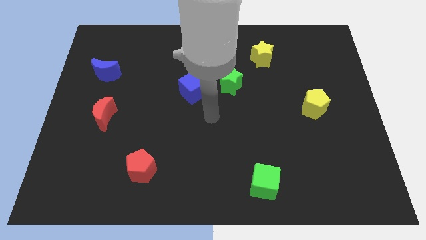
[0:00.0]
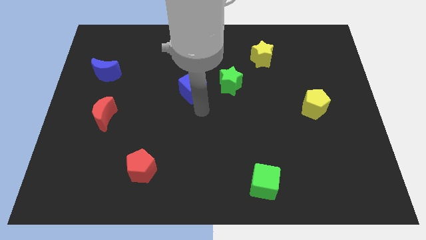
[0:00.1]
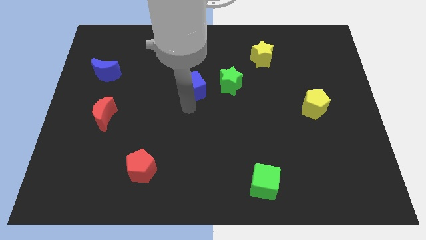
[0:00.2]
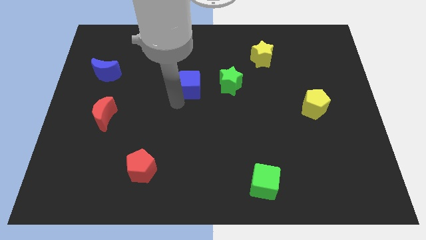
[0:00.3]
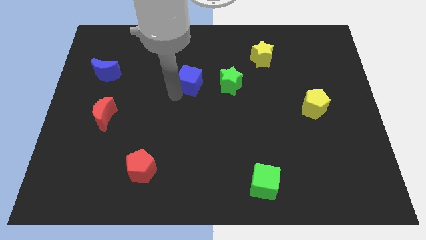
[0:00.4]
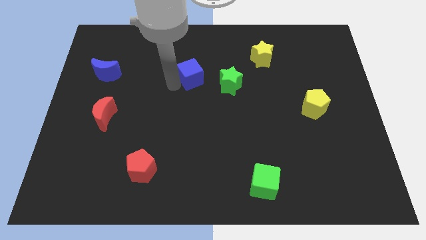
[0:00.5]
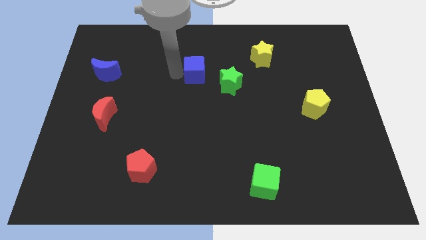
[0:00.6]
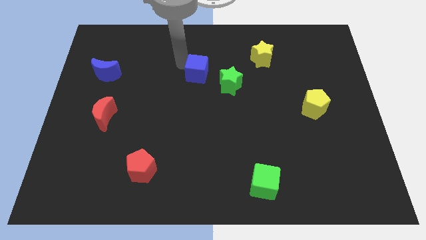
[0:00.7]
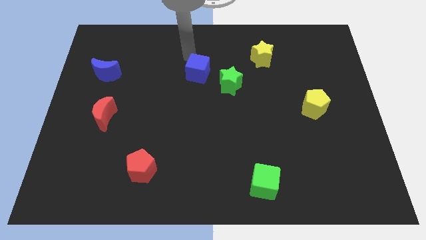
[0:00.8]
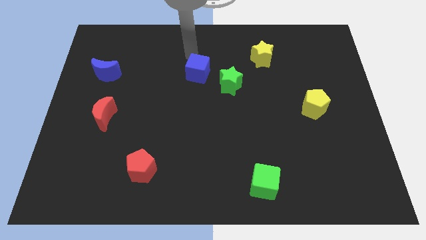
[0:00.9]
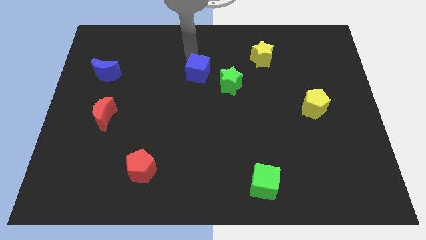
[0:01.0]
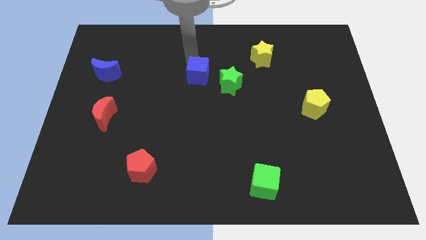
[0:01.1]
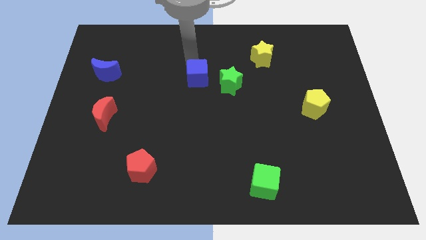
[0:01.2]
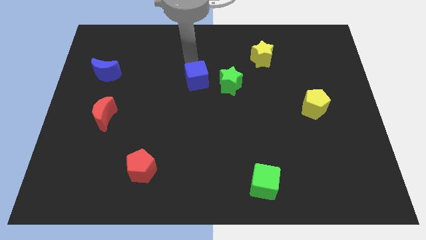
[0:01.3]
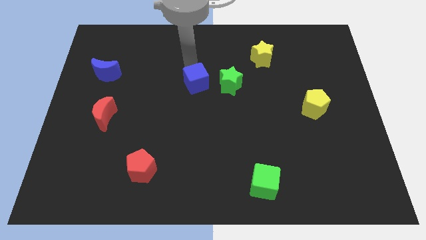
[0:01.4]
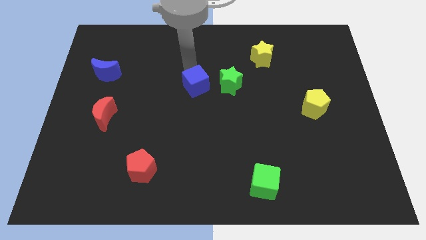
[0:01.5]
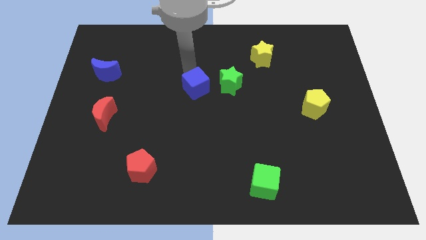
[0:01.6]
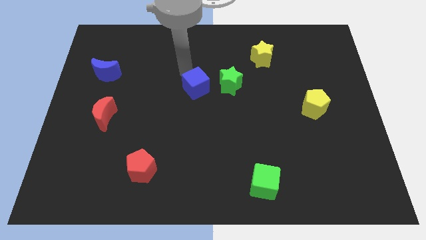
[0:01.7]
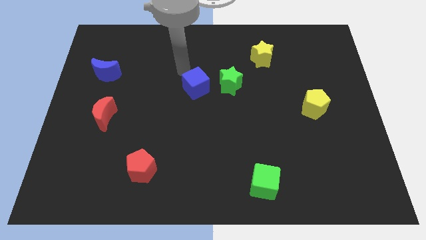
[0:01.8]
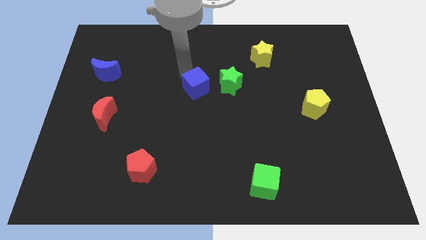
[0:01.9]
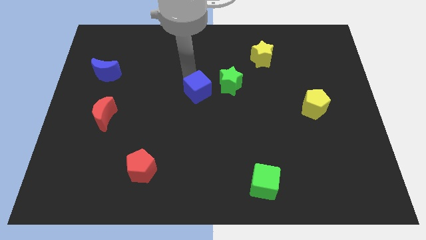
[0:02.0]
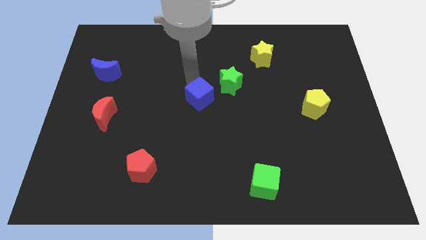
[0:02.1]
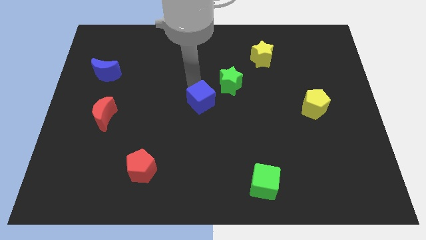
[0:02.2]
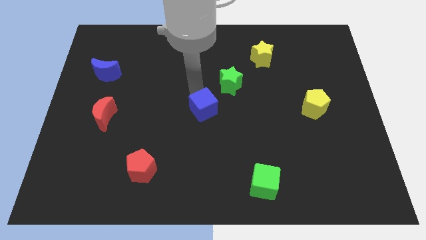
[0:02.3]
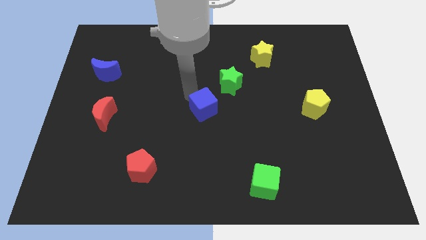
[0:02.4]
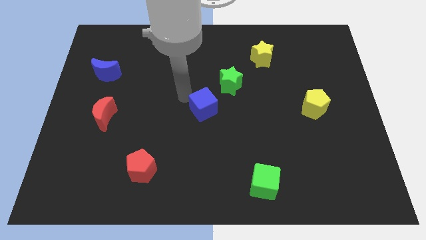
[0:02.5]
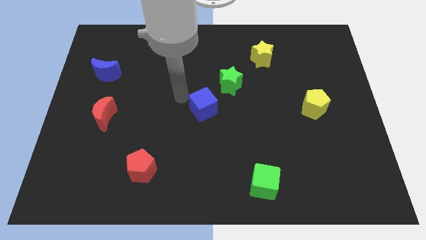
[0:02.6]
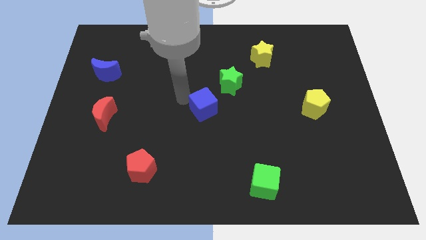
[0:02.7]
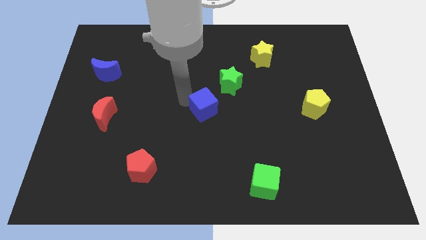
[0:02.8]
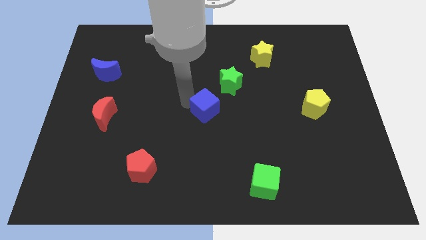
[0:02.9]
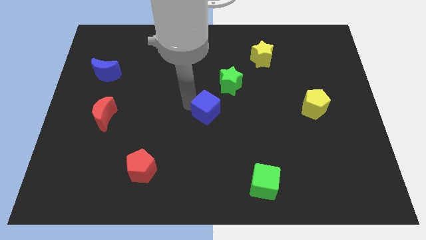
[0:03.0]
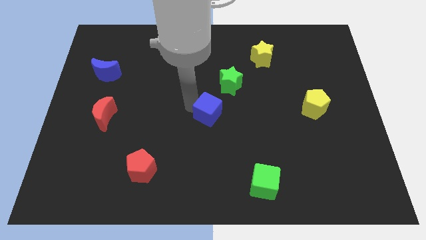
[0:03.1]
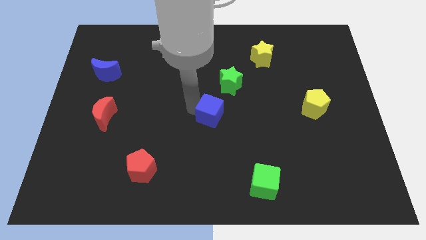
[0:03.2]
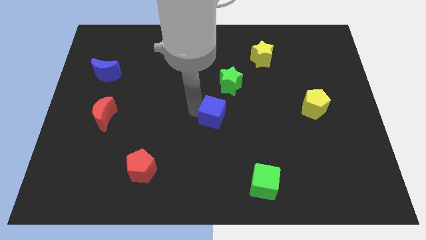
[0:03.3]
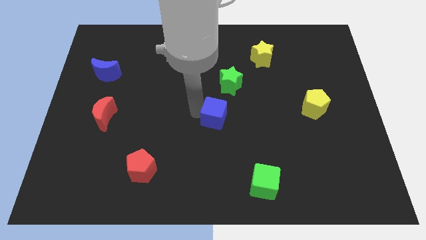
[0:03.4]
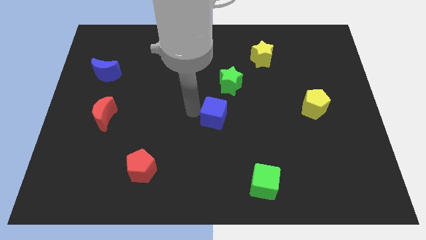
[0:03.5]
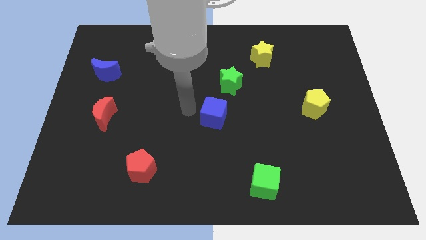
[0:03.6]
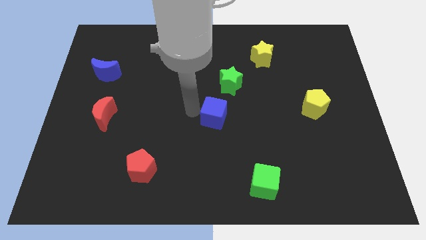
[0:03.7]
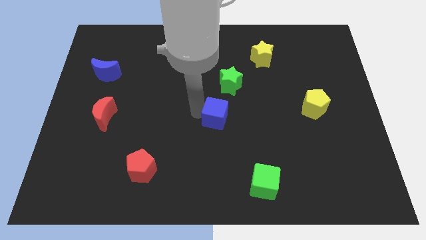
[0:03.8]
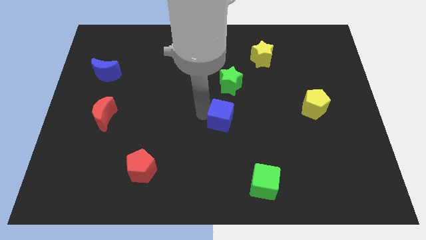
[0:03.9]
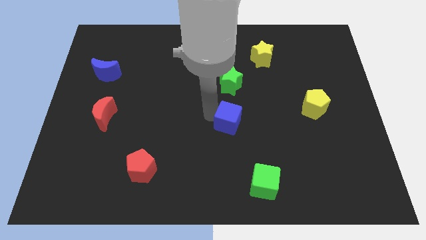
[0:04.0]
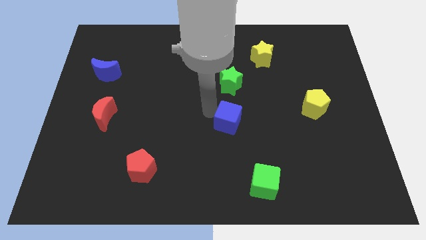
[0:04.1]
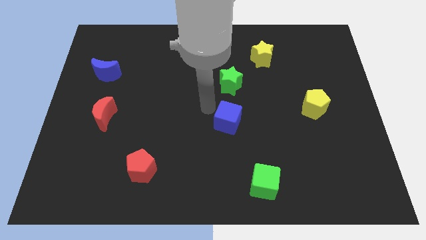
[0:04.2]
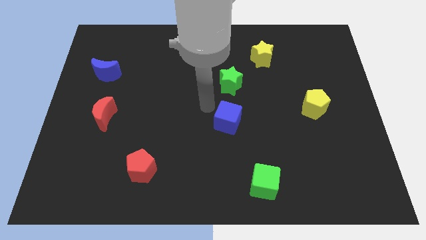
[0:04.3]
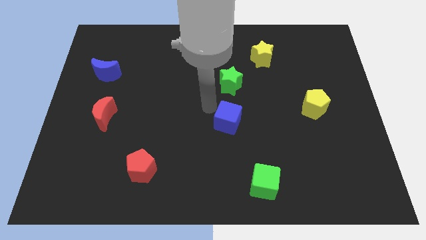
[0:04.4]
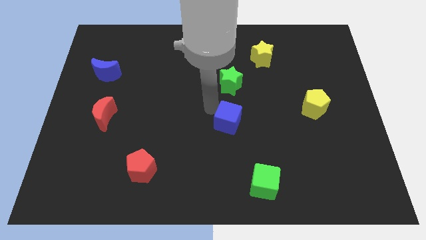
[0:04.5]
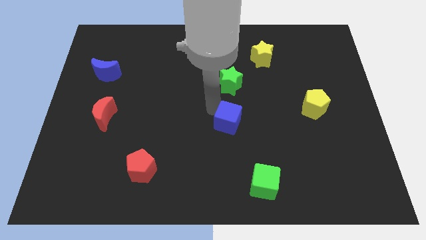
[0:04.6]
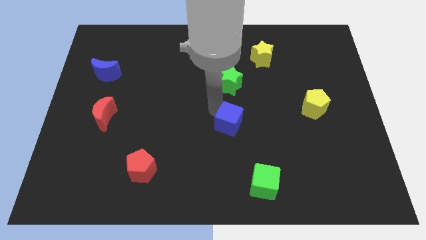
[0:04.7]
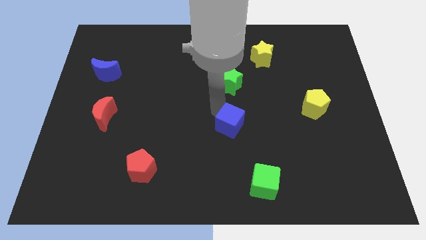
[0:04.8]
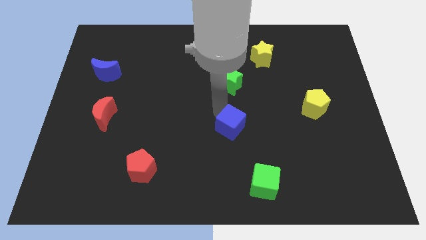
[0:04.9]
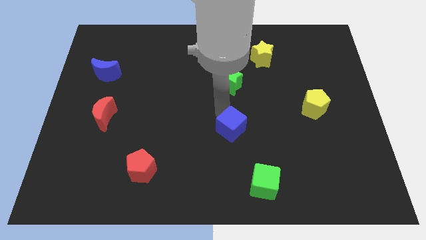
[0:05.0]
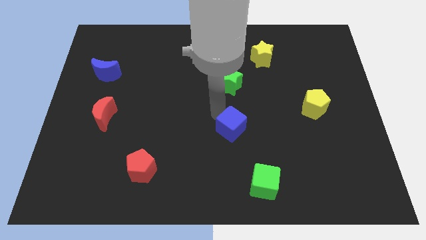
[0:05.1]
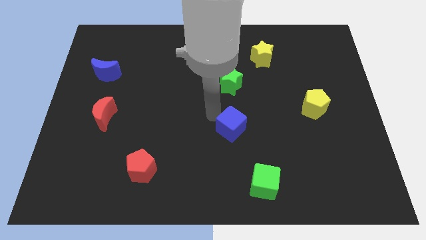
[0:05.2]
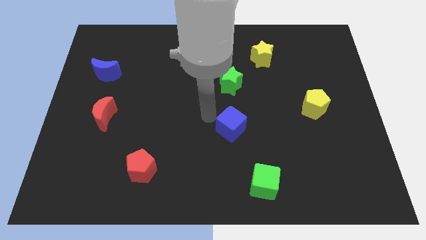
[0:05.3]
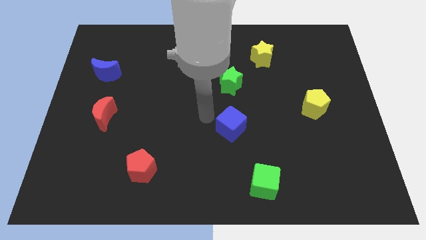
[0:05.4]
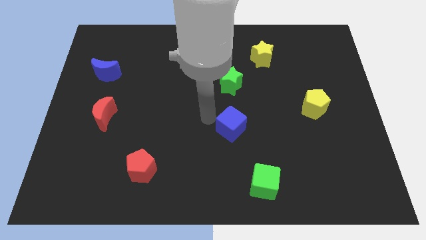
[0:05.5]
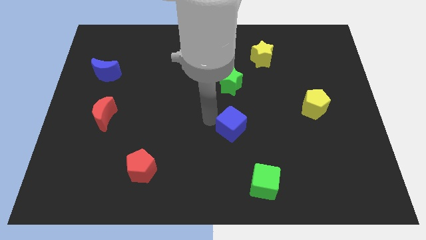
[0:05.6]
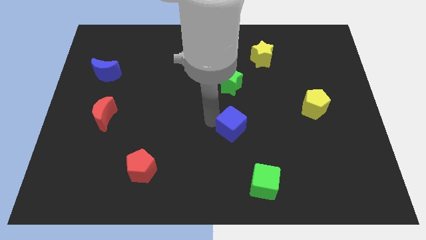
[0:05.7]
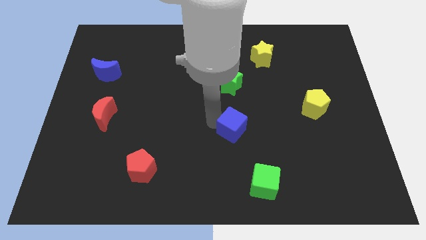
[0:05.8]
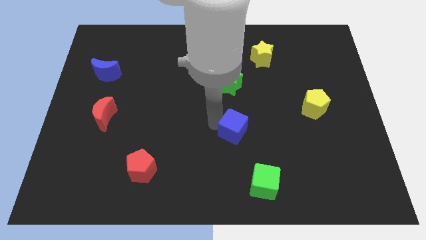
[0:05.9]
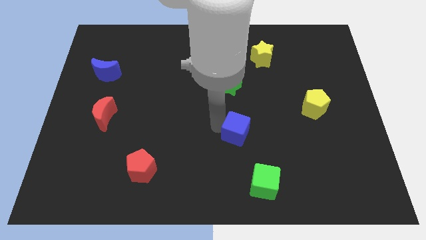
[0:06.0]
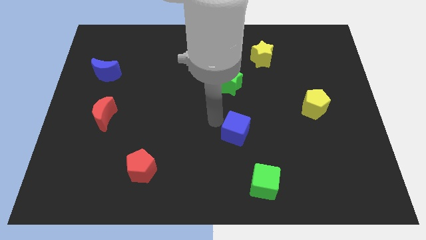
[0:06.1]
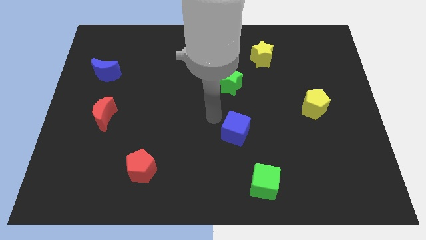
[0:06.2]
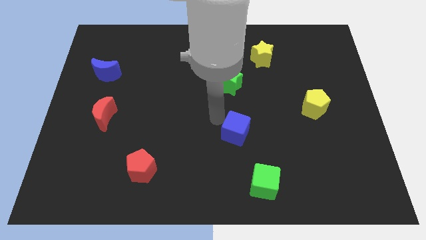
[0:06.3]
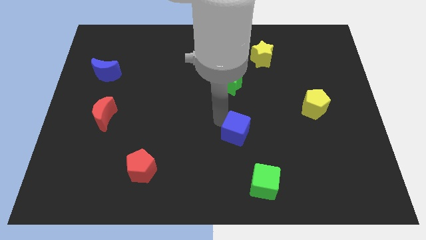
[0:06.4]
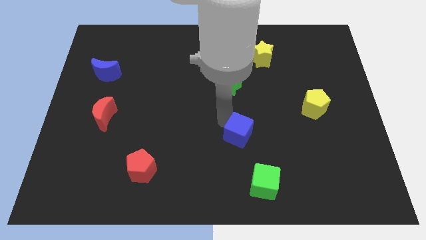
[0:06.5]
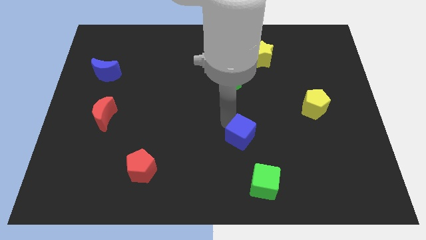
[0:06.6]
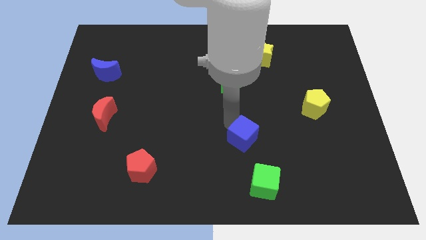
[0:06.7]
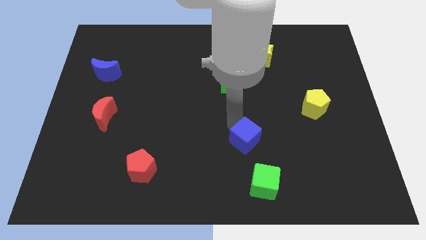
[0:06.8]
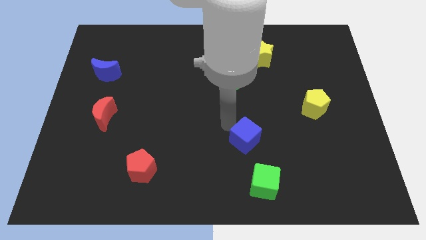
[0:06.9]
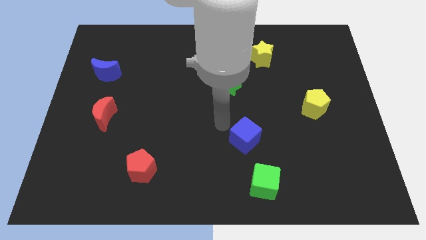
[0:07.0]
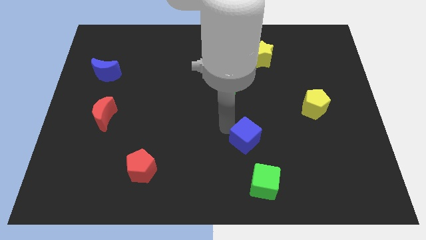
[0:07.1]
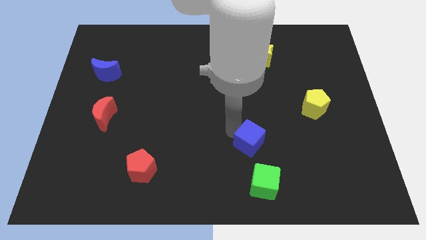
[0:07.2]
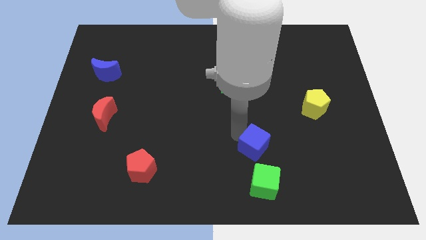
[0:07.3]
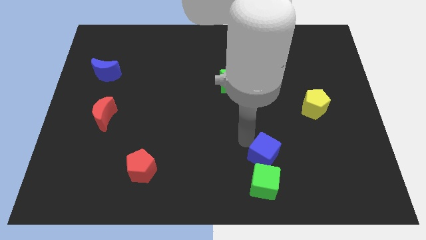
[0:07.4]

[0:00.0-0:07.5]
move the blue cube to the top right of the green cube
